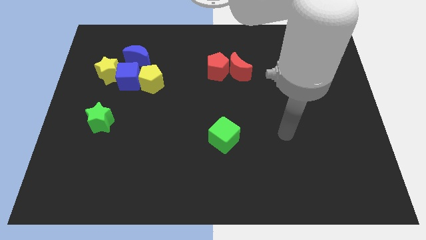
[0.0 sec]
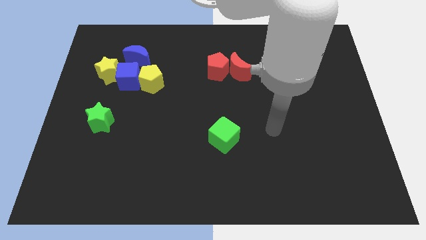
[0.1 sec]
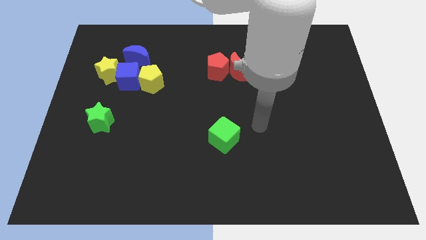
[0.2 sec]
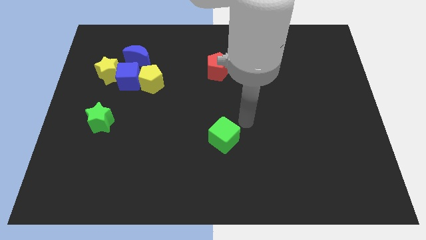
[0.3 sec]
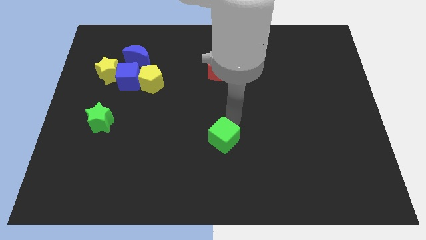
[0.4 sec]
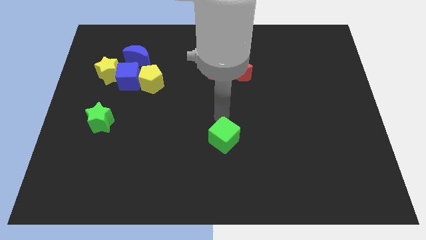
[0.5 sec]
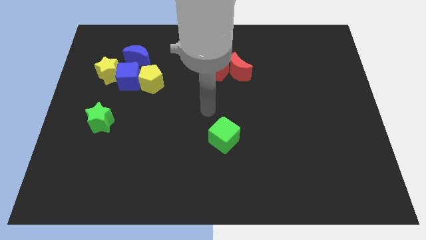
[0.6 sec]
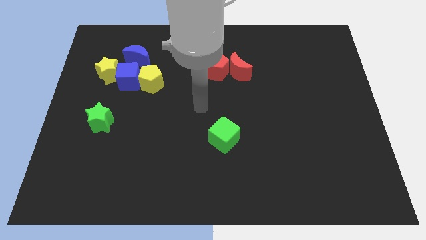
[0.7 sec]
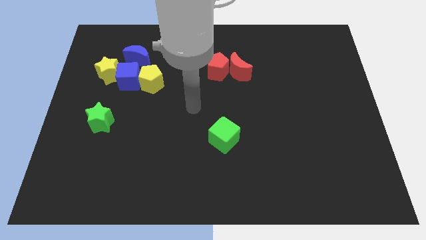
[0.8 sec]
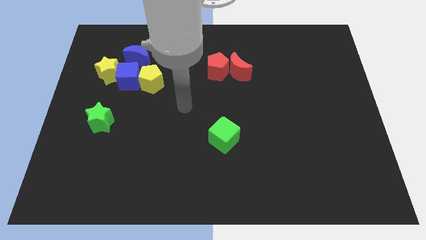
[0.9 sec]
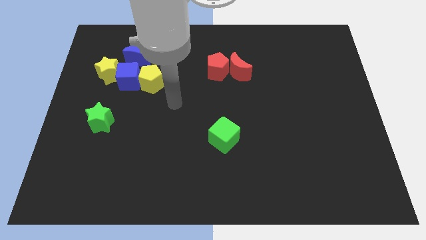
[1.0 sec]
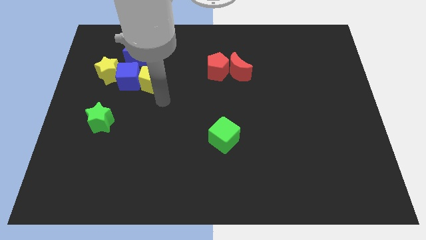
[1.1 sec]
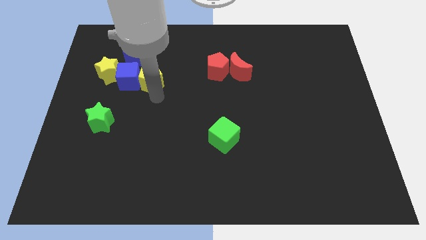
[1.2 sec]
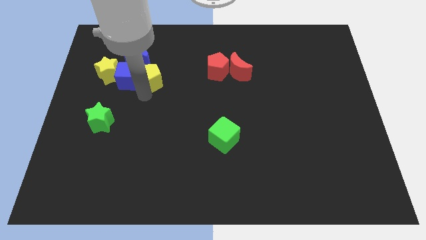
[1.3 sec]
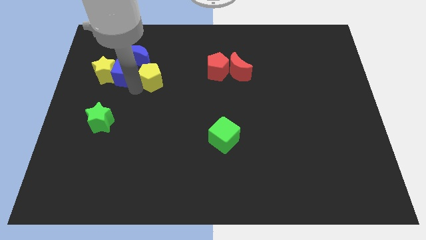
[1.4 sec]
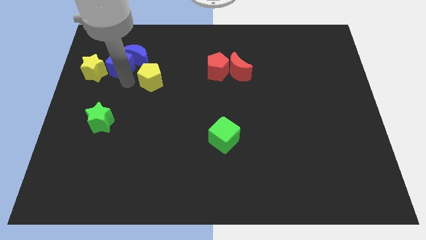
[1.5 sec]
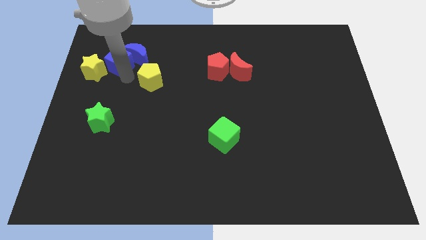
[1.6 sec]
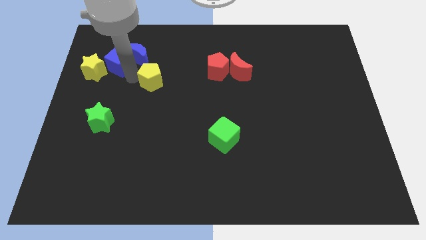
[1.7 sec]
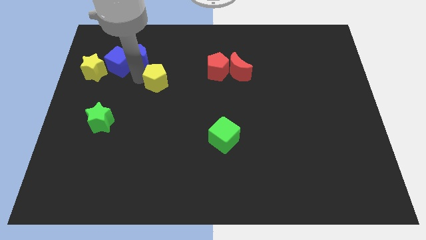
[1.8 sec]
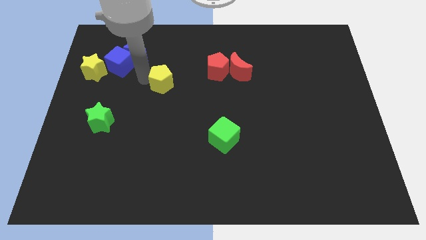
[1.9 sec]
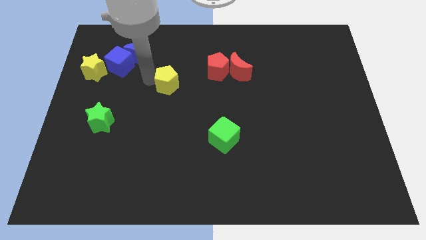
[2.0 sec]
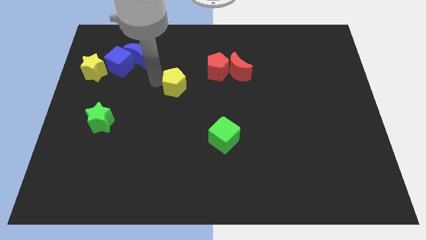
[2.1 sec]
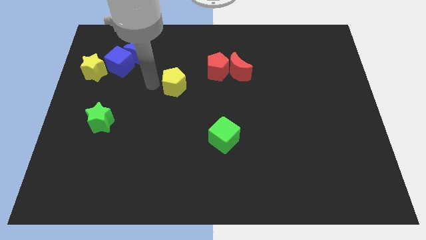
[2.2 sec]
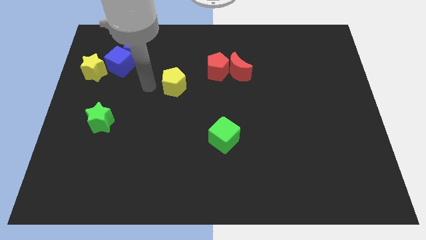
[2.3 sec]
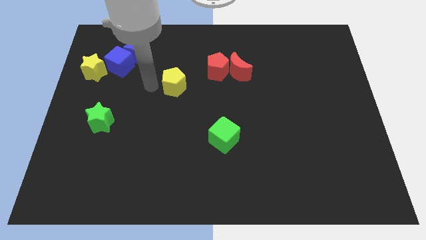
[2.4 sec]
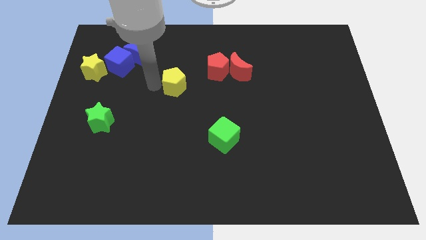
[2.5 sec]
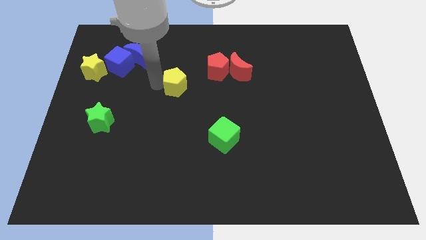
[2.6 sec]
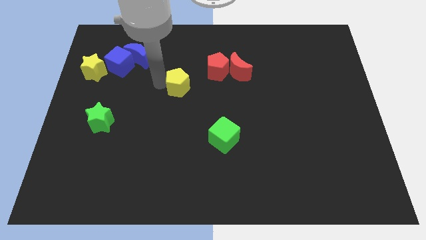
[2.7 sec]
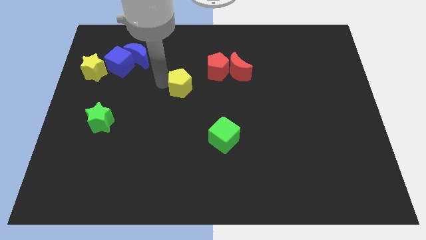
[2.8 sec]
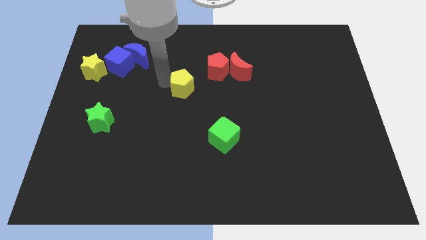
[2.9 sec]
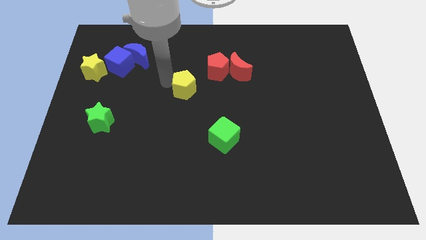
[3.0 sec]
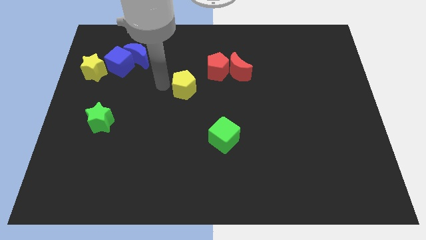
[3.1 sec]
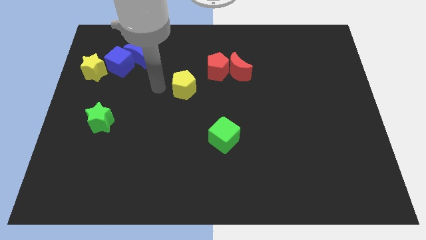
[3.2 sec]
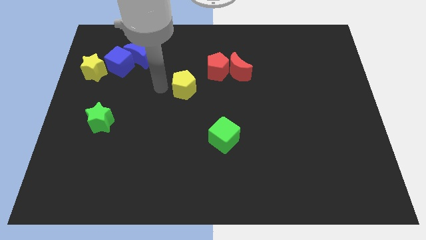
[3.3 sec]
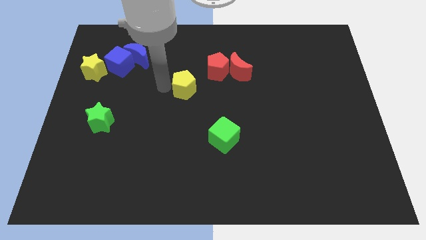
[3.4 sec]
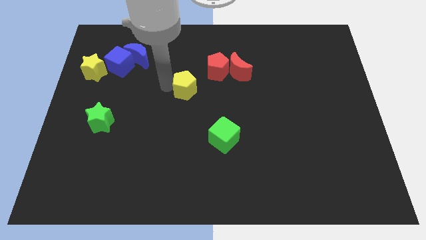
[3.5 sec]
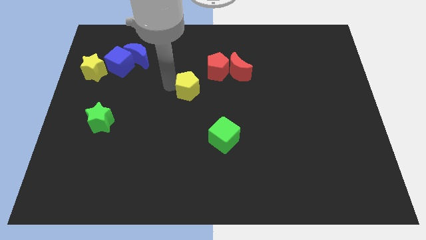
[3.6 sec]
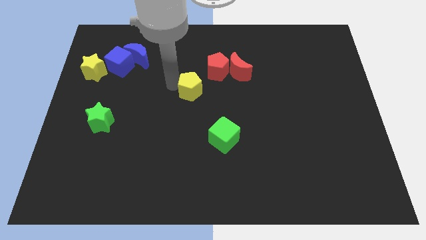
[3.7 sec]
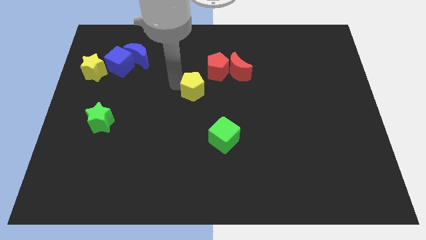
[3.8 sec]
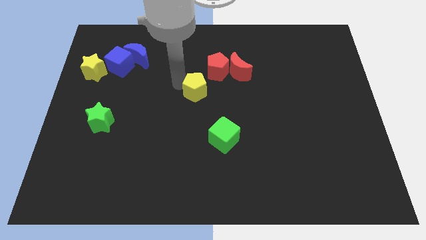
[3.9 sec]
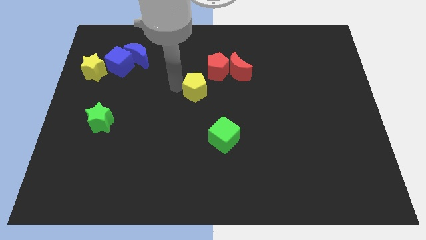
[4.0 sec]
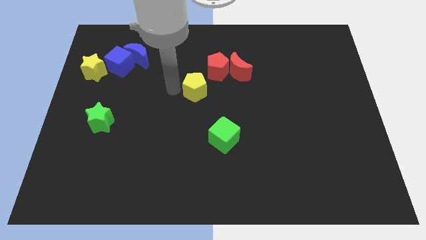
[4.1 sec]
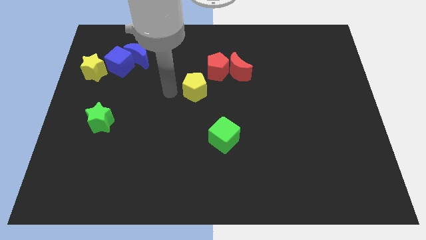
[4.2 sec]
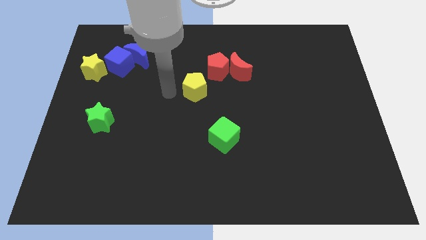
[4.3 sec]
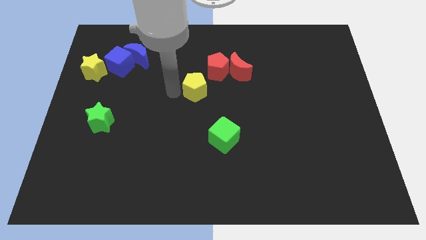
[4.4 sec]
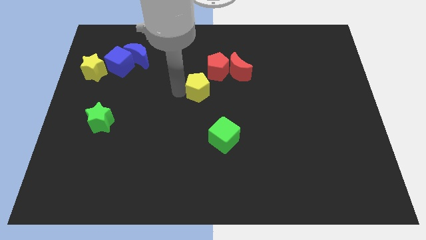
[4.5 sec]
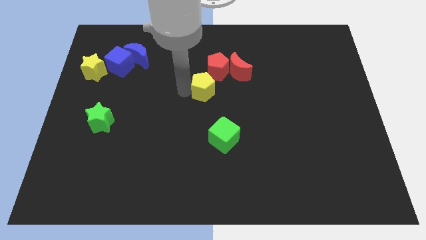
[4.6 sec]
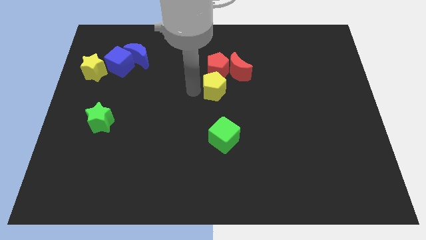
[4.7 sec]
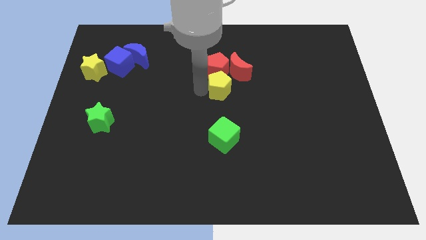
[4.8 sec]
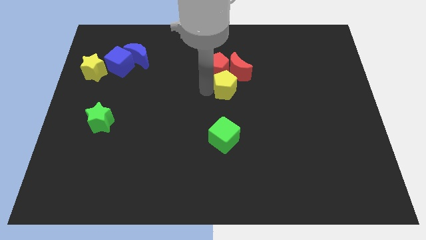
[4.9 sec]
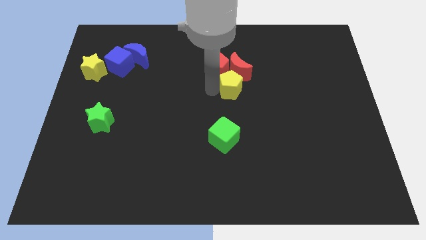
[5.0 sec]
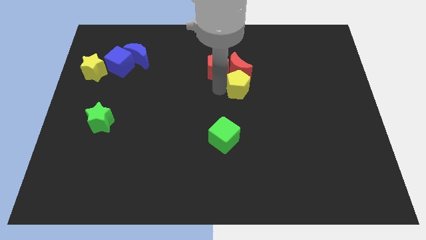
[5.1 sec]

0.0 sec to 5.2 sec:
slide the yellow pentagon right

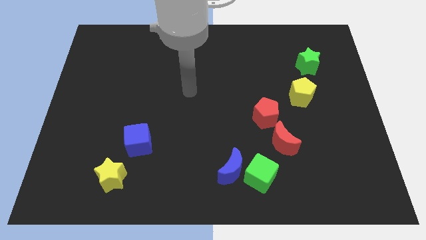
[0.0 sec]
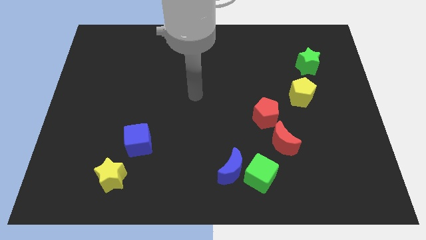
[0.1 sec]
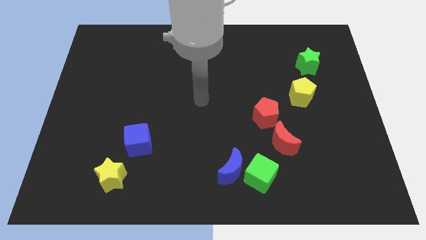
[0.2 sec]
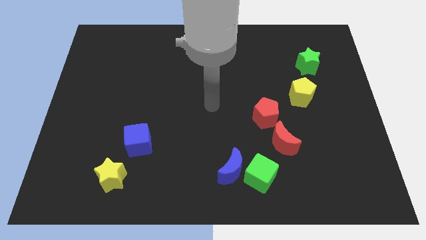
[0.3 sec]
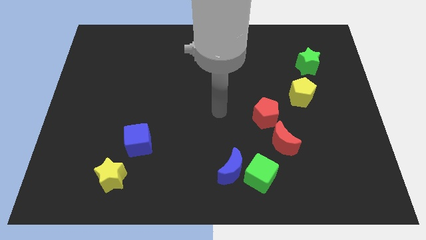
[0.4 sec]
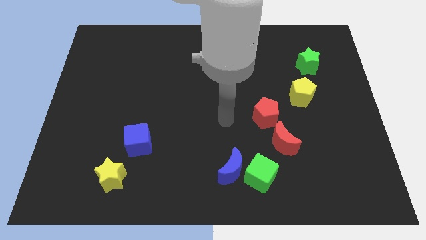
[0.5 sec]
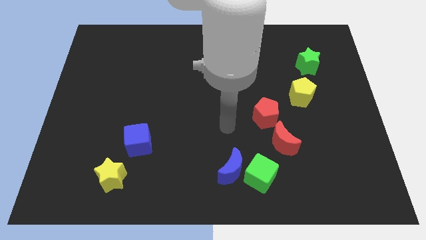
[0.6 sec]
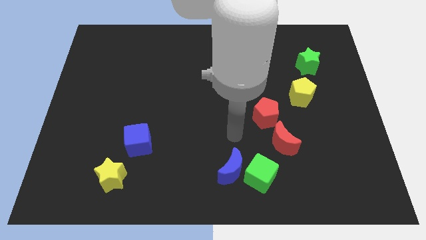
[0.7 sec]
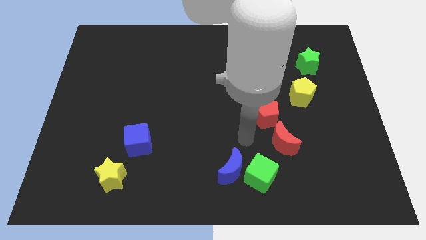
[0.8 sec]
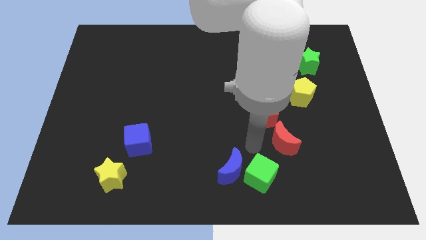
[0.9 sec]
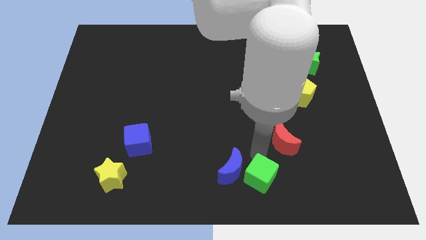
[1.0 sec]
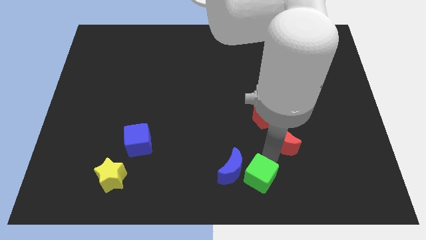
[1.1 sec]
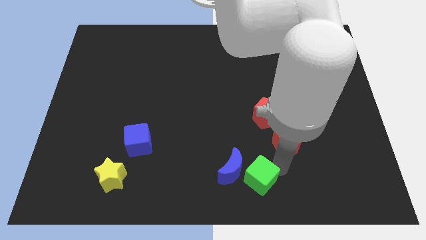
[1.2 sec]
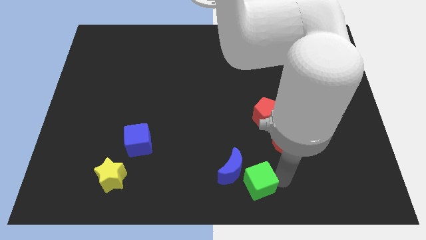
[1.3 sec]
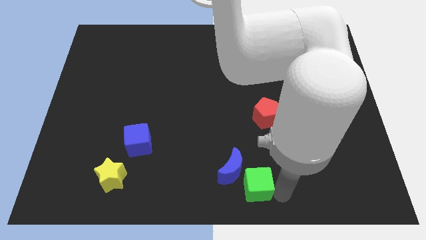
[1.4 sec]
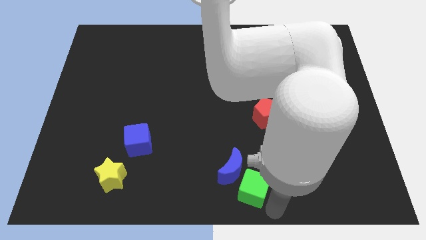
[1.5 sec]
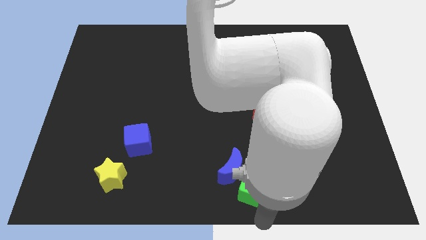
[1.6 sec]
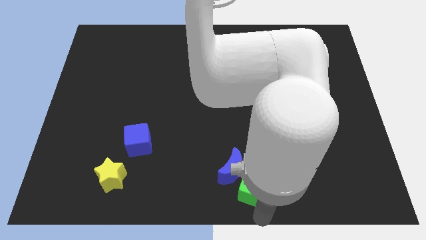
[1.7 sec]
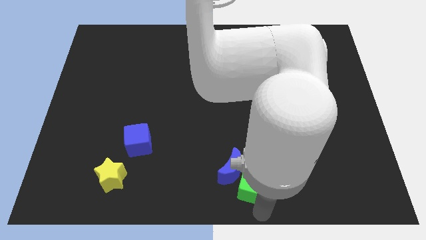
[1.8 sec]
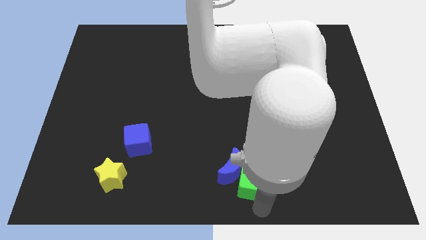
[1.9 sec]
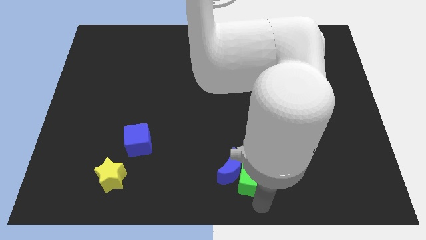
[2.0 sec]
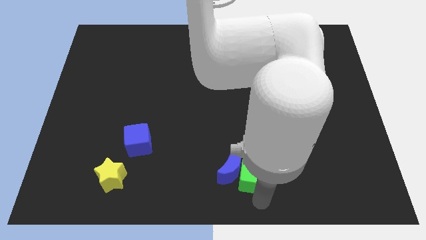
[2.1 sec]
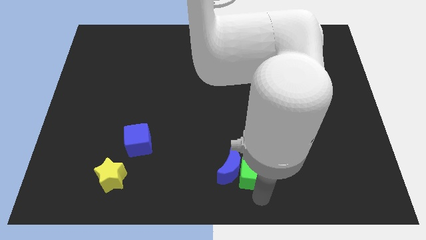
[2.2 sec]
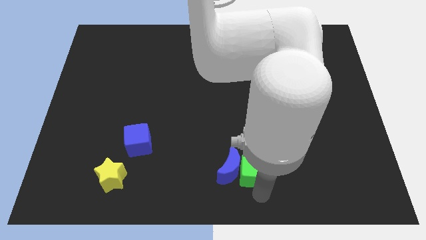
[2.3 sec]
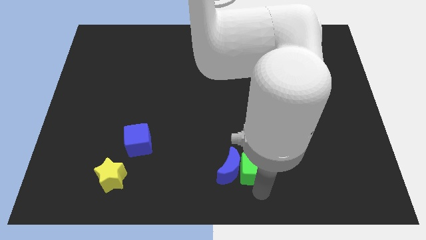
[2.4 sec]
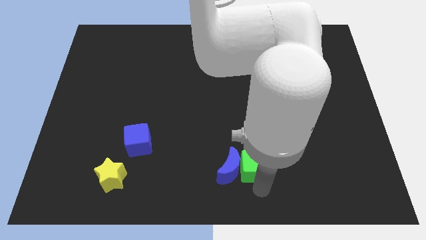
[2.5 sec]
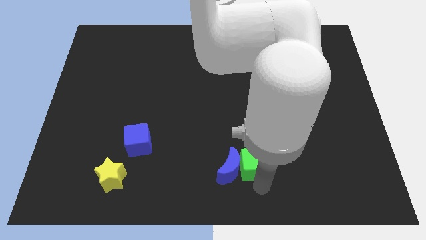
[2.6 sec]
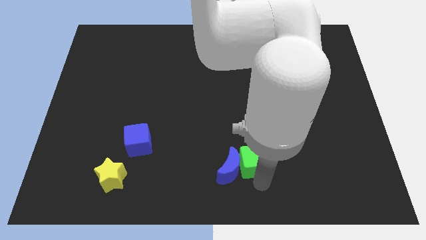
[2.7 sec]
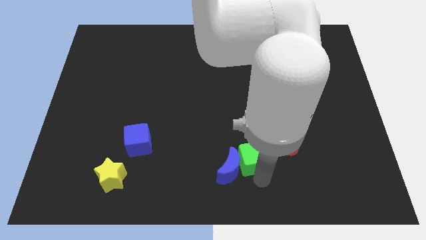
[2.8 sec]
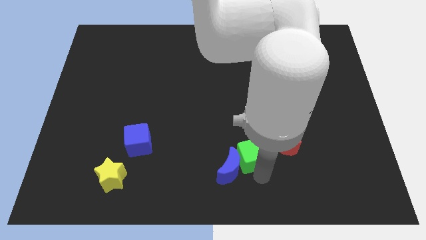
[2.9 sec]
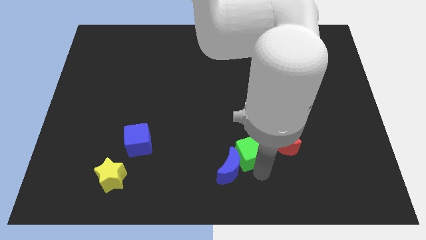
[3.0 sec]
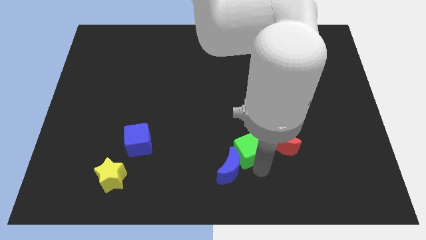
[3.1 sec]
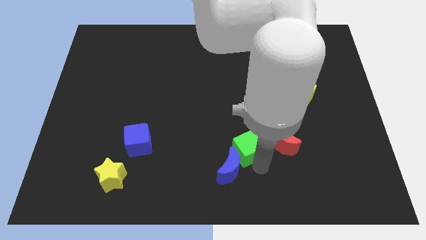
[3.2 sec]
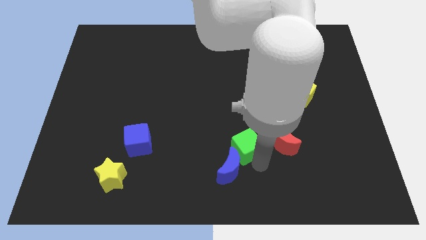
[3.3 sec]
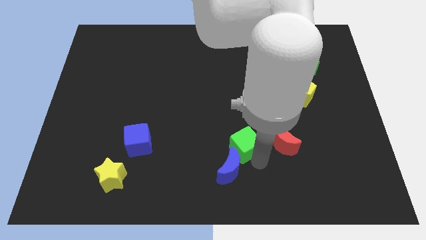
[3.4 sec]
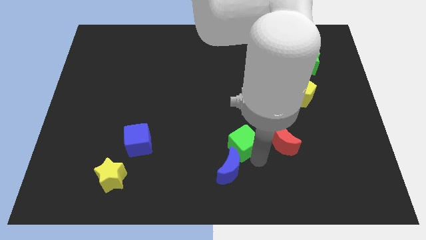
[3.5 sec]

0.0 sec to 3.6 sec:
slide the green cube diagonally upwards and left somewhat
